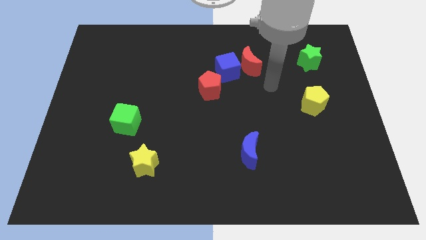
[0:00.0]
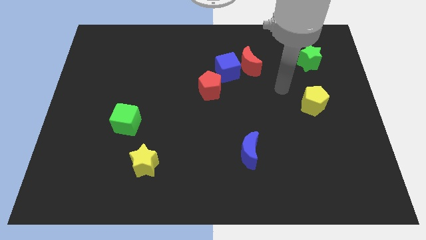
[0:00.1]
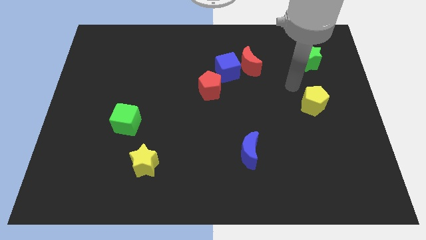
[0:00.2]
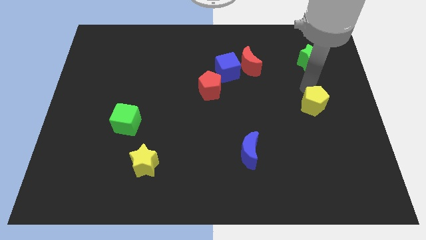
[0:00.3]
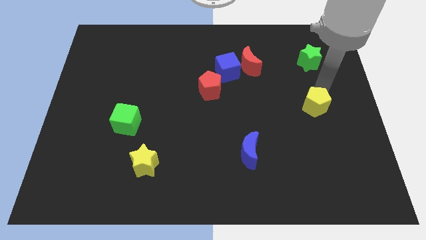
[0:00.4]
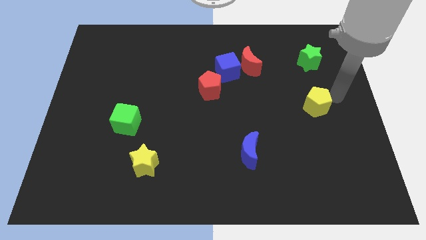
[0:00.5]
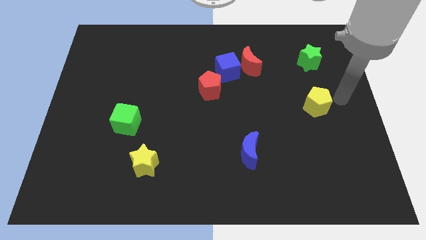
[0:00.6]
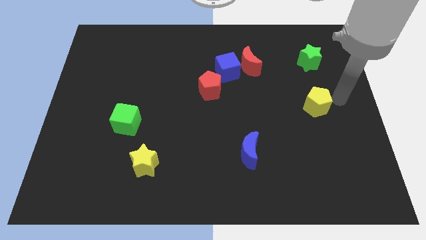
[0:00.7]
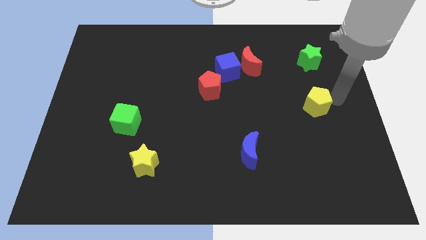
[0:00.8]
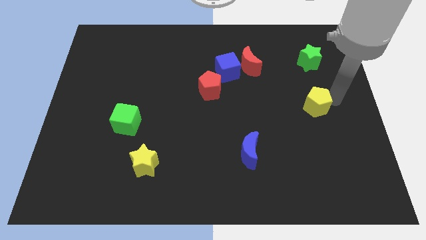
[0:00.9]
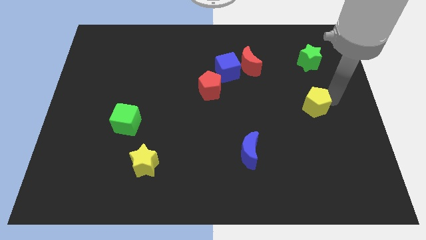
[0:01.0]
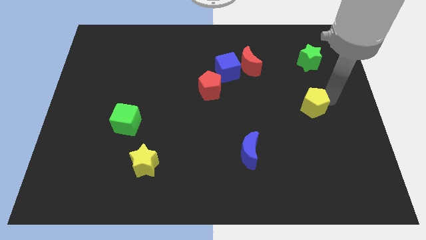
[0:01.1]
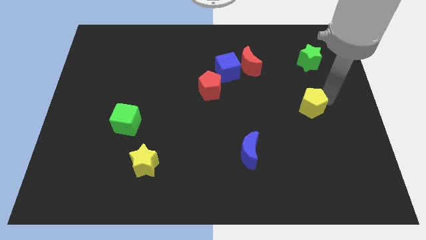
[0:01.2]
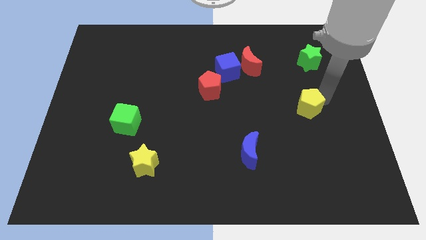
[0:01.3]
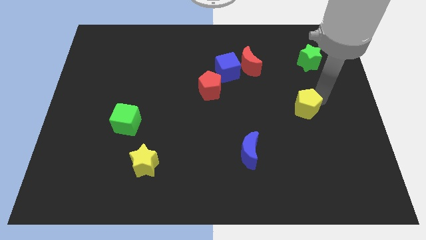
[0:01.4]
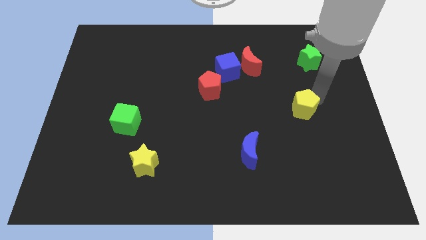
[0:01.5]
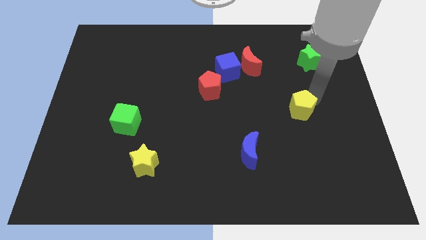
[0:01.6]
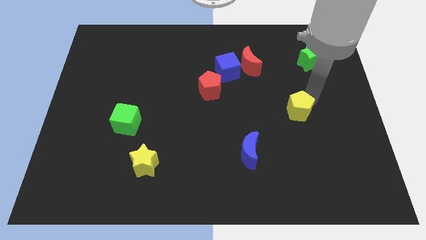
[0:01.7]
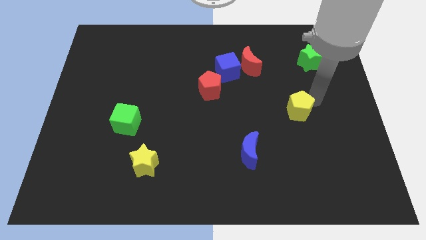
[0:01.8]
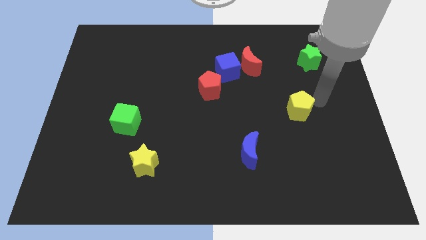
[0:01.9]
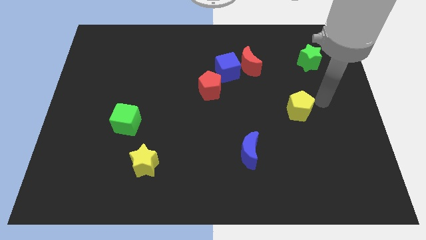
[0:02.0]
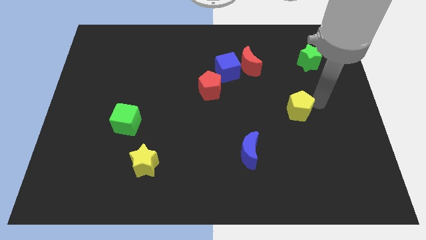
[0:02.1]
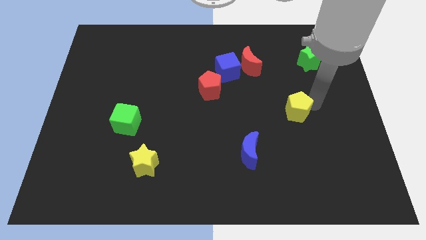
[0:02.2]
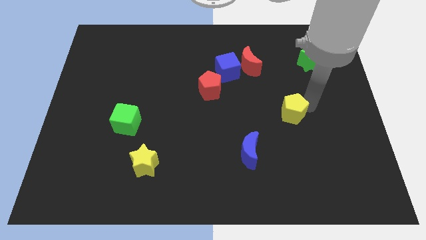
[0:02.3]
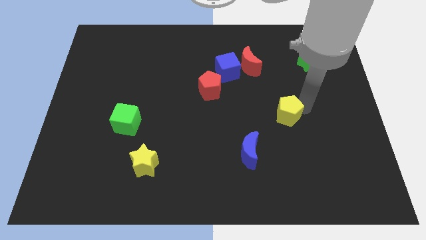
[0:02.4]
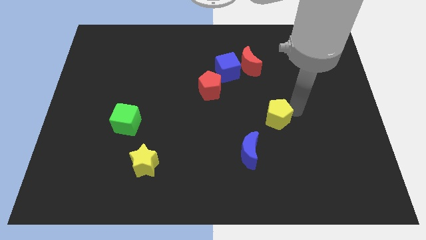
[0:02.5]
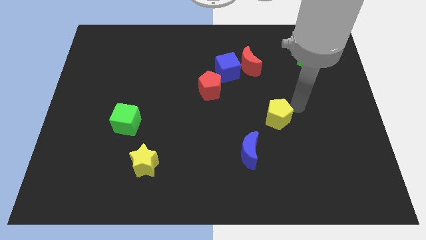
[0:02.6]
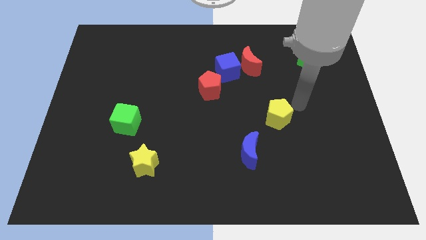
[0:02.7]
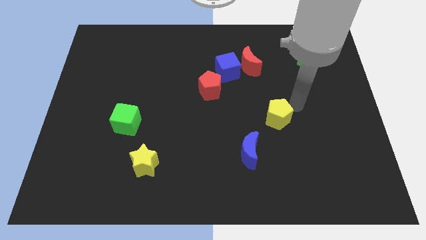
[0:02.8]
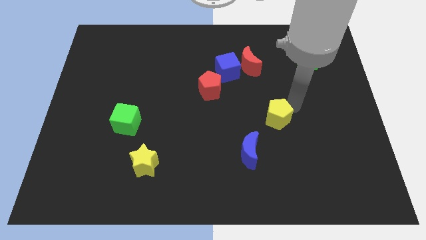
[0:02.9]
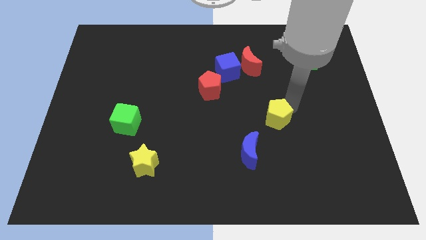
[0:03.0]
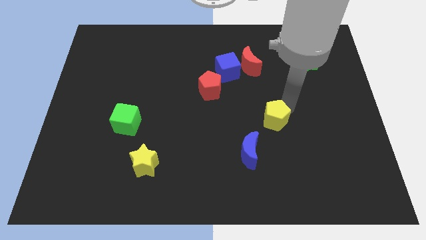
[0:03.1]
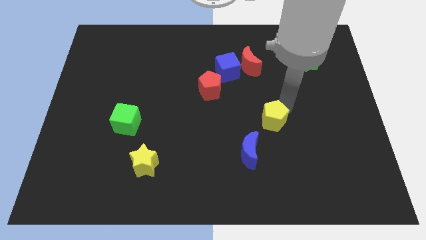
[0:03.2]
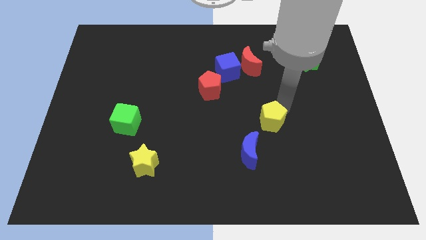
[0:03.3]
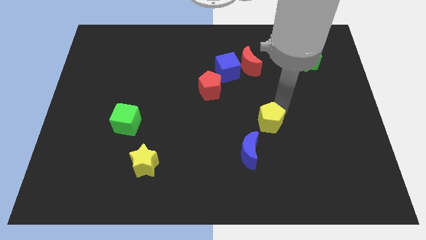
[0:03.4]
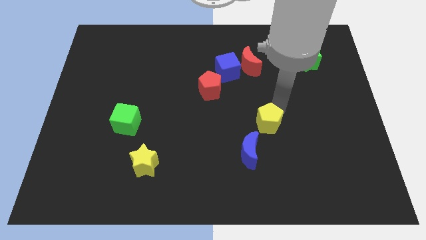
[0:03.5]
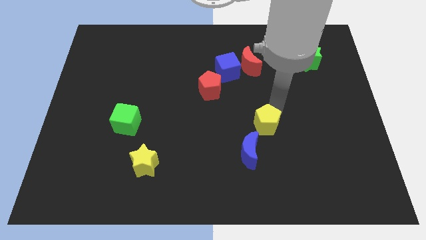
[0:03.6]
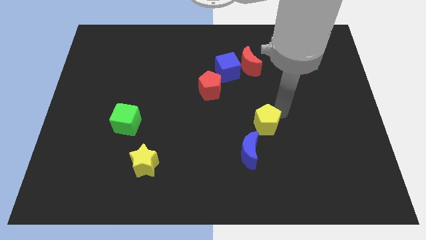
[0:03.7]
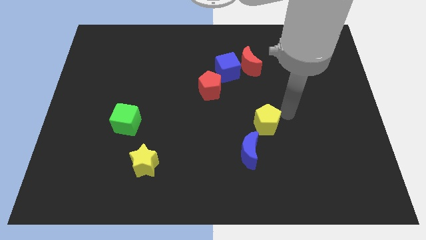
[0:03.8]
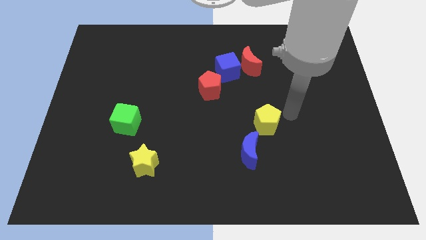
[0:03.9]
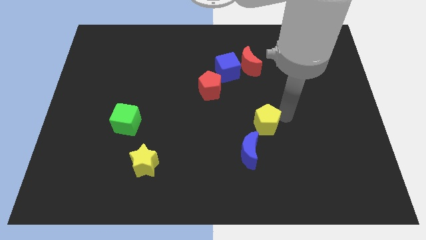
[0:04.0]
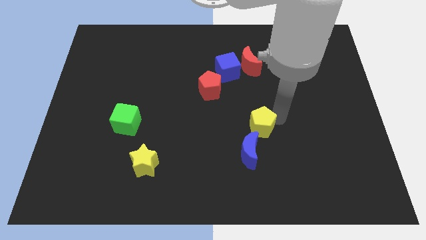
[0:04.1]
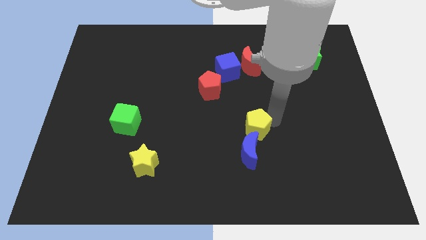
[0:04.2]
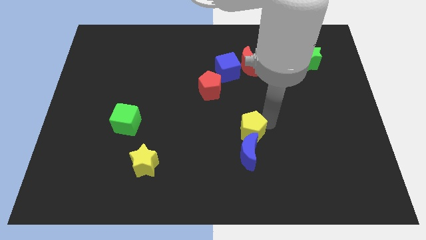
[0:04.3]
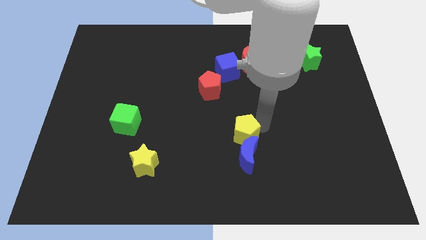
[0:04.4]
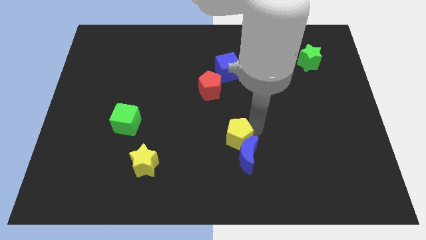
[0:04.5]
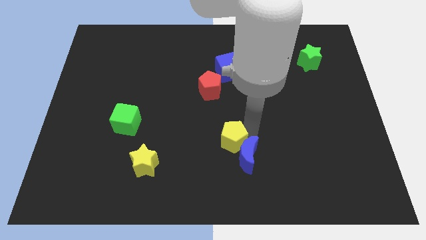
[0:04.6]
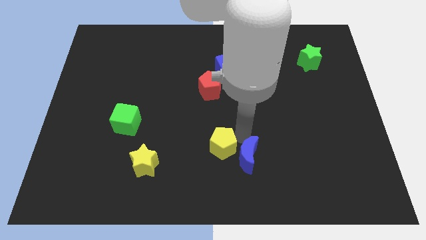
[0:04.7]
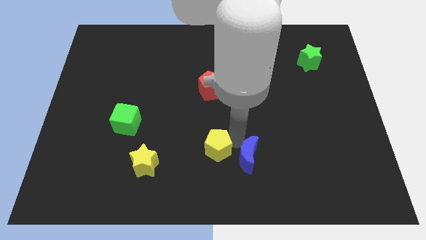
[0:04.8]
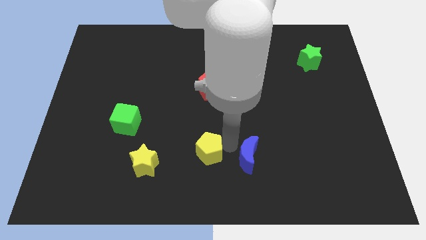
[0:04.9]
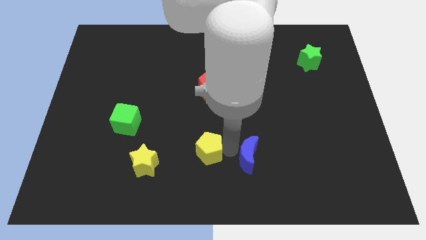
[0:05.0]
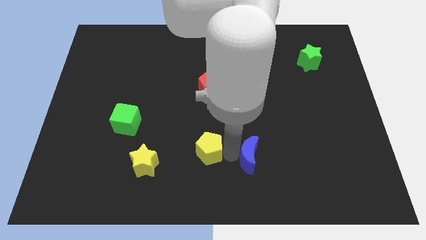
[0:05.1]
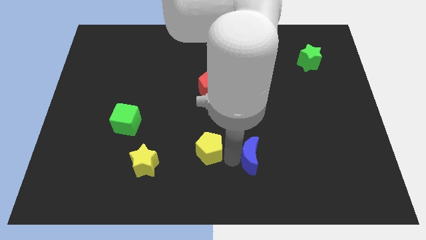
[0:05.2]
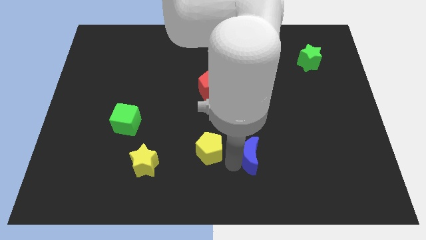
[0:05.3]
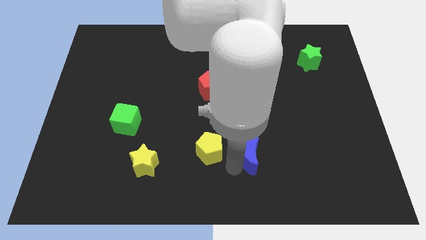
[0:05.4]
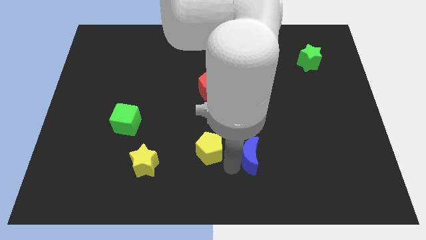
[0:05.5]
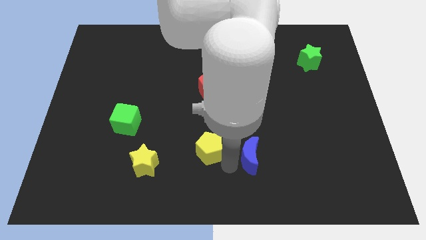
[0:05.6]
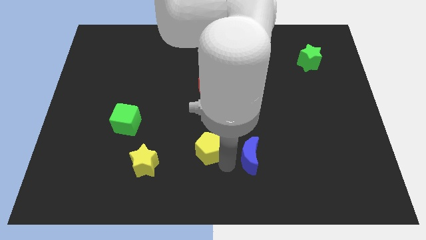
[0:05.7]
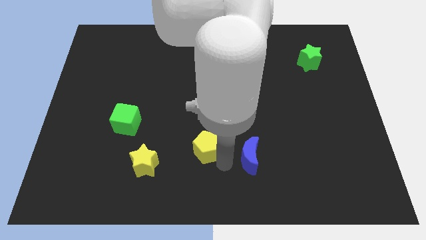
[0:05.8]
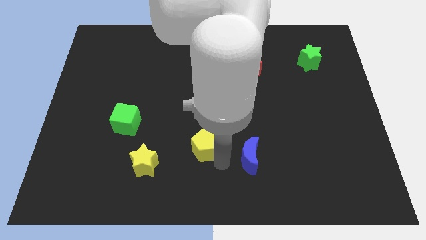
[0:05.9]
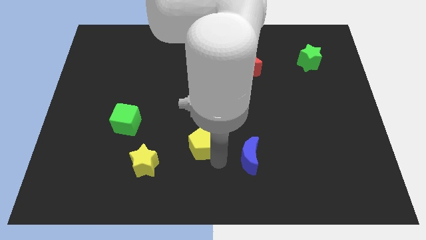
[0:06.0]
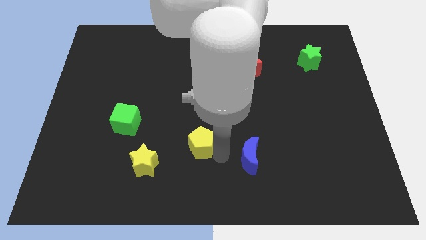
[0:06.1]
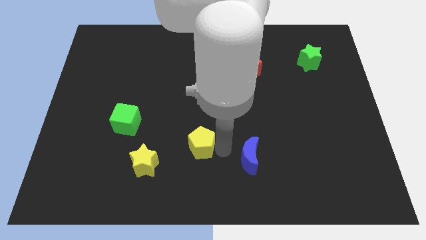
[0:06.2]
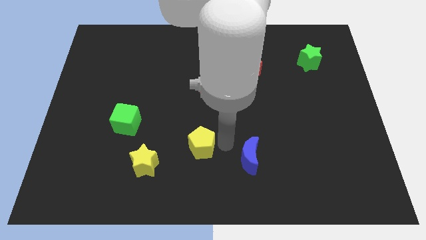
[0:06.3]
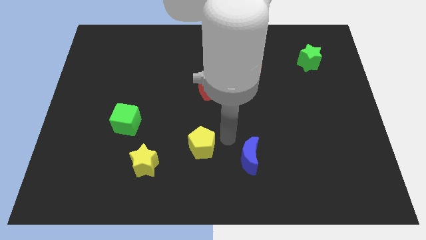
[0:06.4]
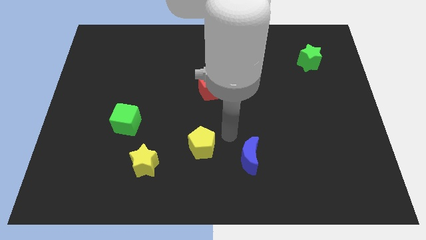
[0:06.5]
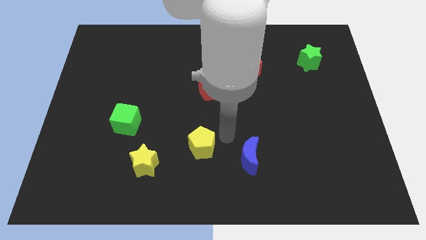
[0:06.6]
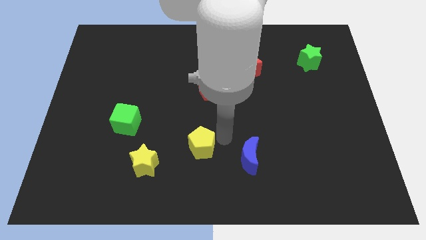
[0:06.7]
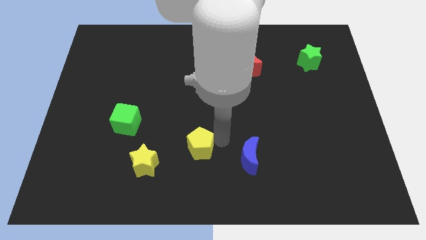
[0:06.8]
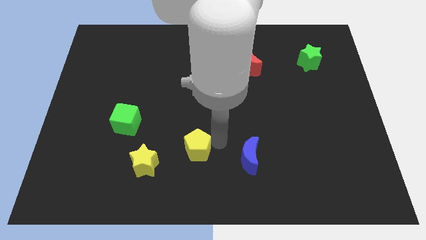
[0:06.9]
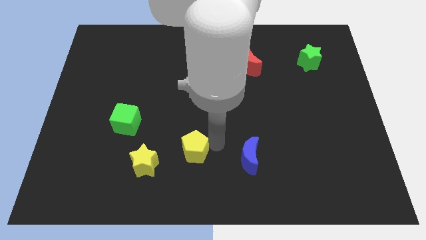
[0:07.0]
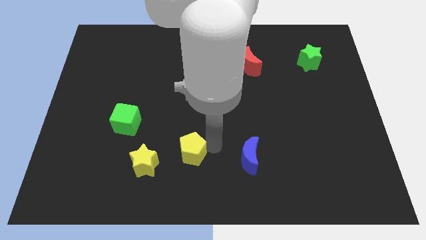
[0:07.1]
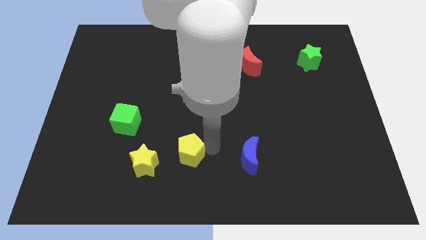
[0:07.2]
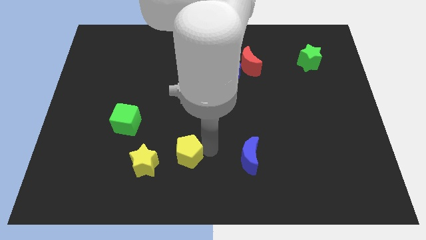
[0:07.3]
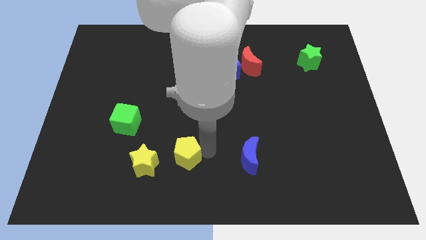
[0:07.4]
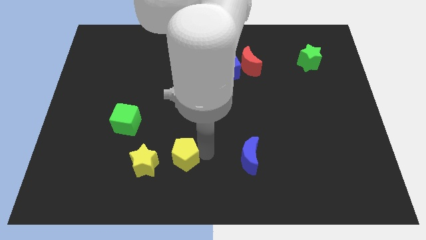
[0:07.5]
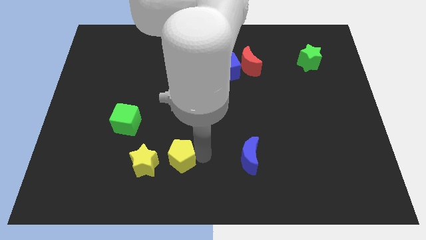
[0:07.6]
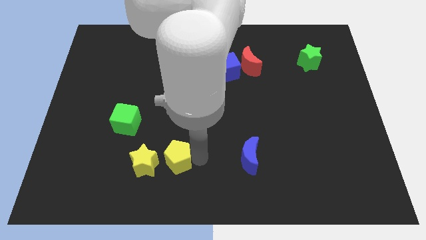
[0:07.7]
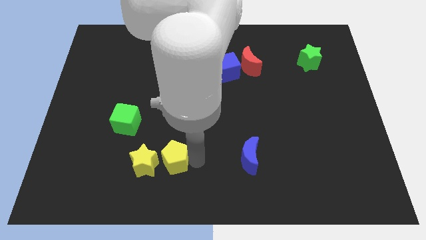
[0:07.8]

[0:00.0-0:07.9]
move the yellow pentagon close to the yellow star
